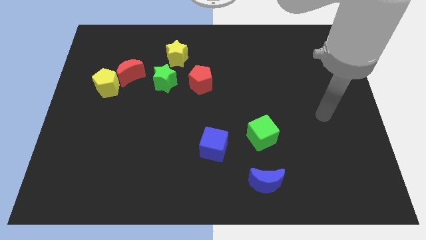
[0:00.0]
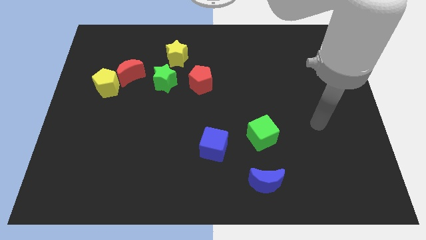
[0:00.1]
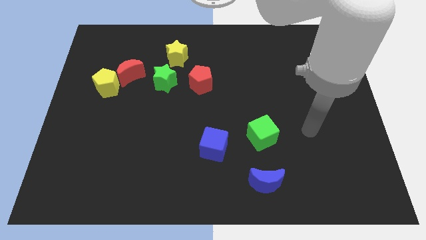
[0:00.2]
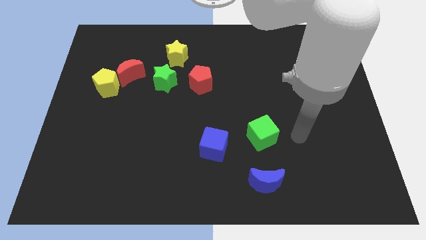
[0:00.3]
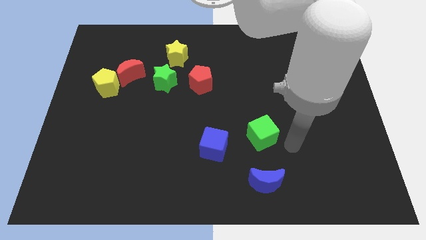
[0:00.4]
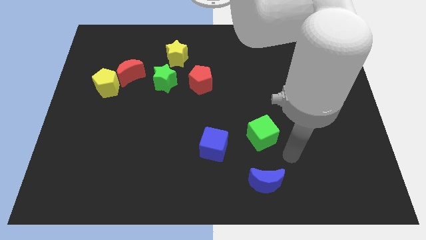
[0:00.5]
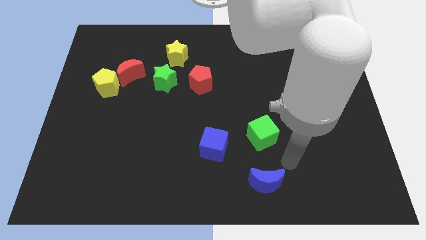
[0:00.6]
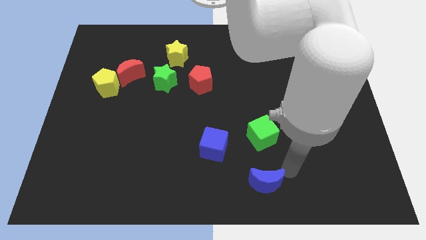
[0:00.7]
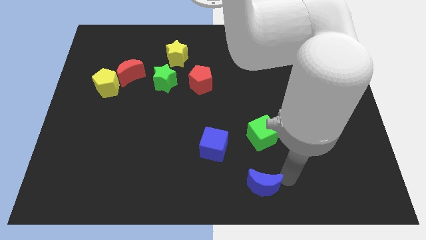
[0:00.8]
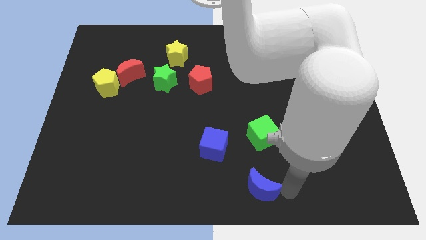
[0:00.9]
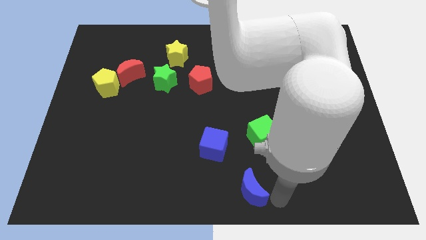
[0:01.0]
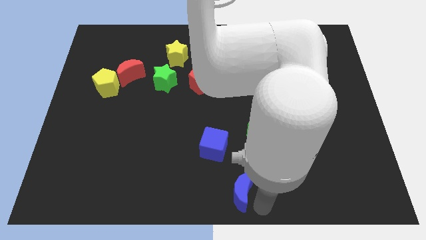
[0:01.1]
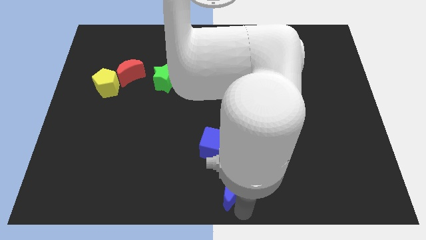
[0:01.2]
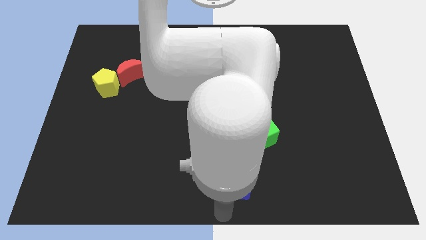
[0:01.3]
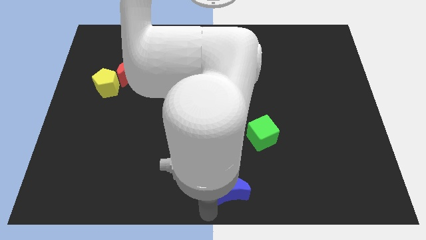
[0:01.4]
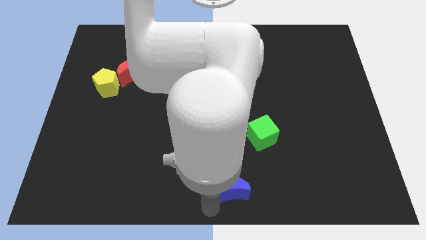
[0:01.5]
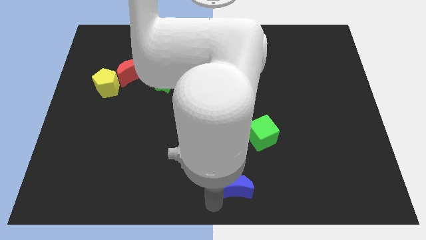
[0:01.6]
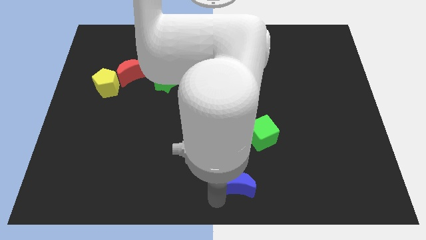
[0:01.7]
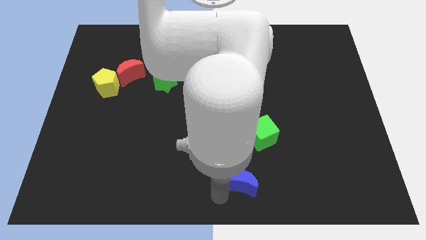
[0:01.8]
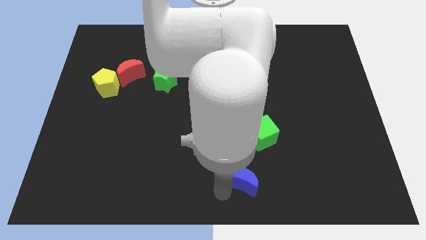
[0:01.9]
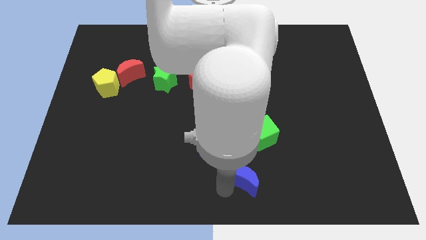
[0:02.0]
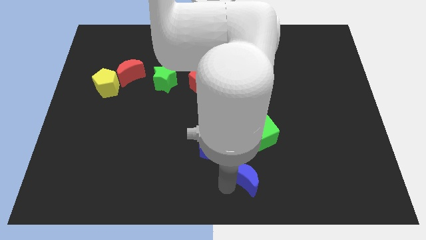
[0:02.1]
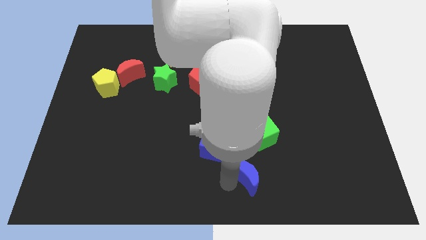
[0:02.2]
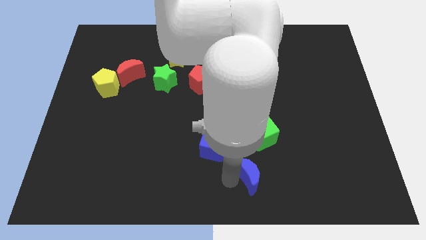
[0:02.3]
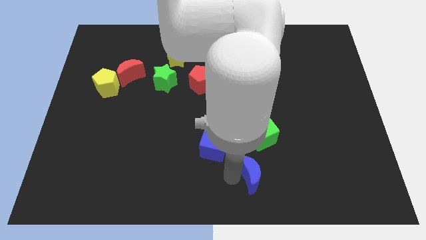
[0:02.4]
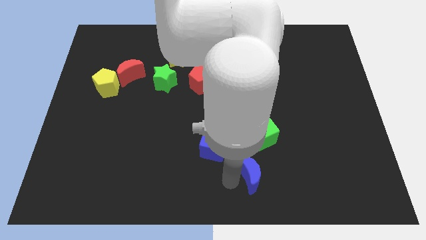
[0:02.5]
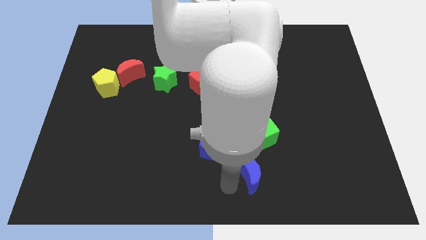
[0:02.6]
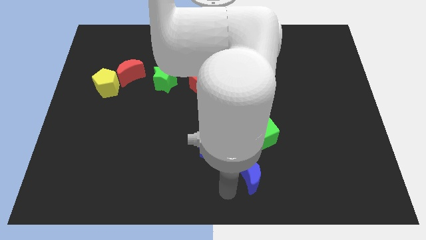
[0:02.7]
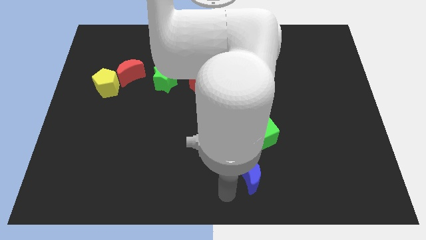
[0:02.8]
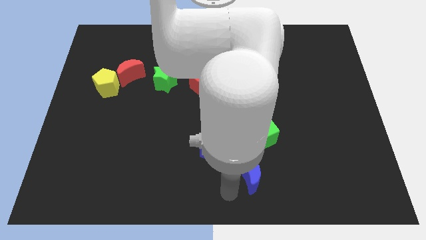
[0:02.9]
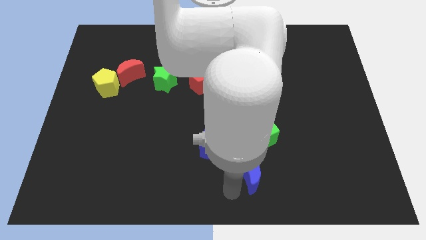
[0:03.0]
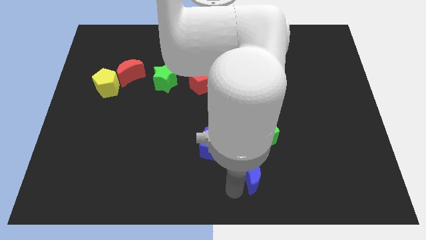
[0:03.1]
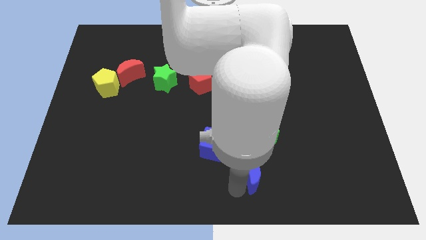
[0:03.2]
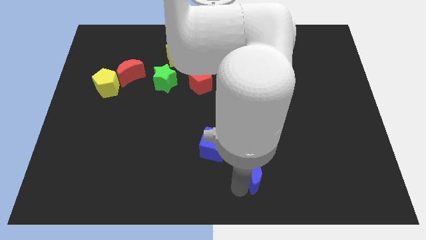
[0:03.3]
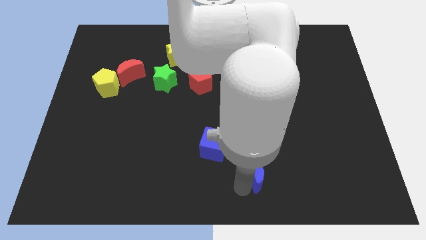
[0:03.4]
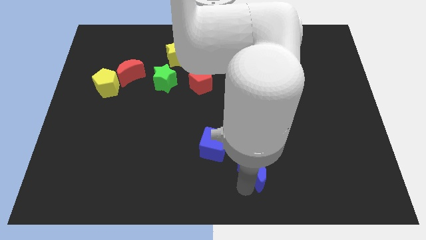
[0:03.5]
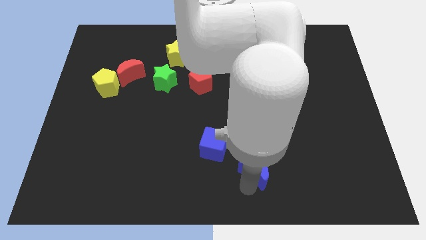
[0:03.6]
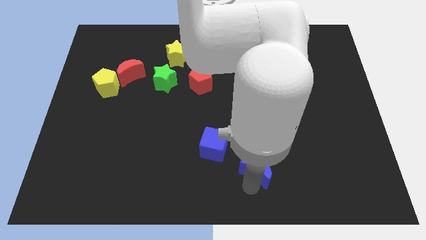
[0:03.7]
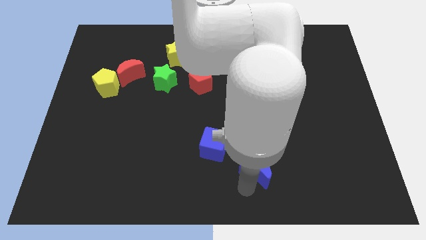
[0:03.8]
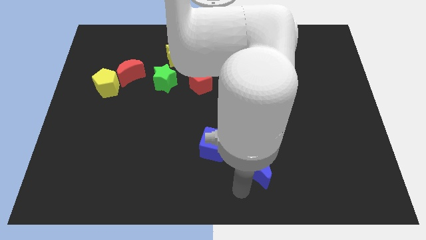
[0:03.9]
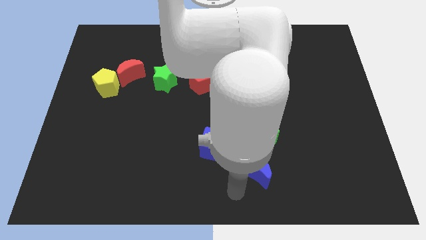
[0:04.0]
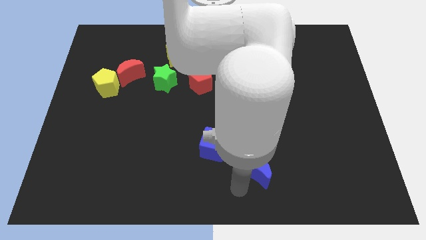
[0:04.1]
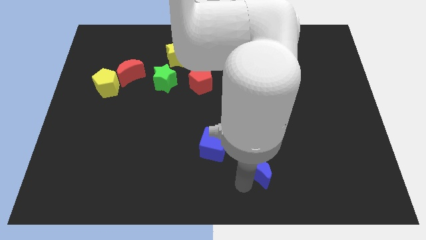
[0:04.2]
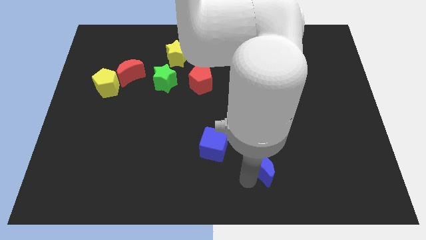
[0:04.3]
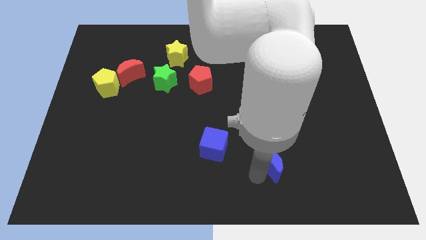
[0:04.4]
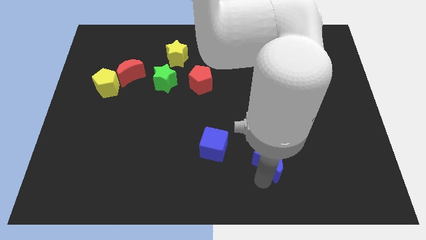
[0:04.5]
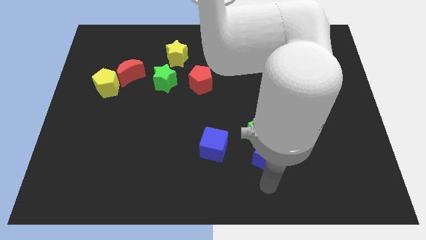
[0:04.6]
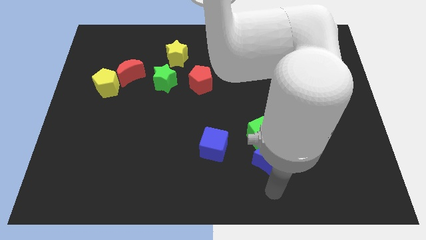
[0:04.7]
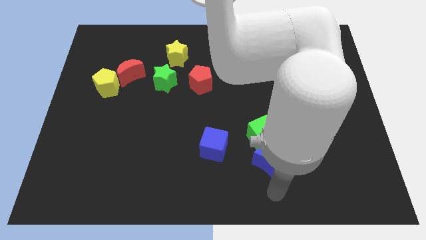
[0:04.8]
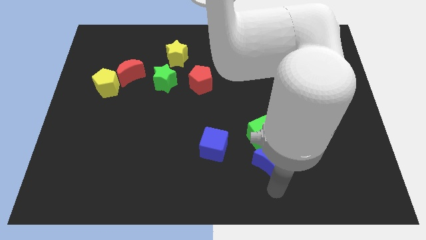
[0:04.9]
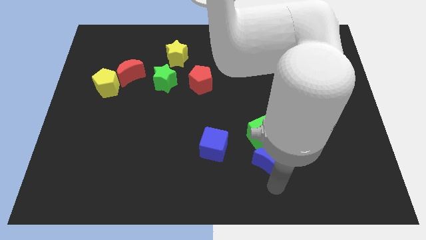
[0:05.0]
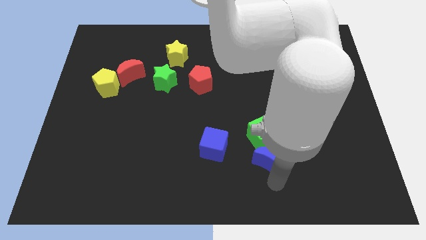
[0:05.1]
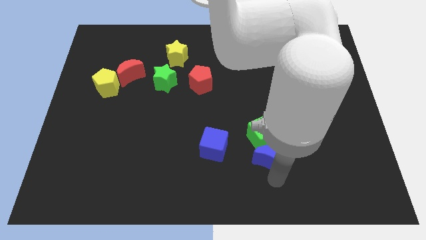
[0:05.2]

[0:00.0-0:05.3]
move the blue moon towards the green cube

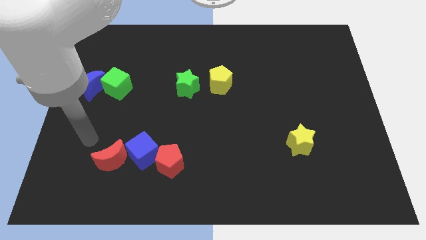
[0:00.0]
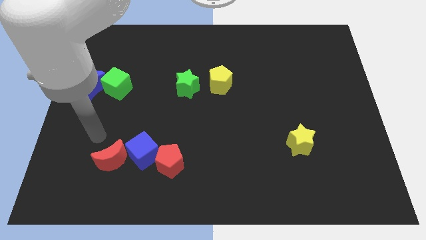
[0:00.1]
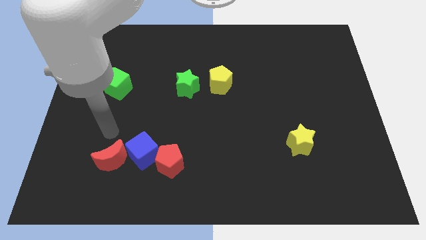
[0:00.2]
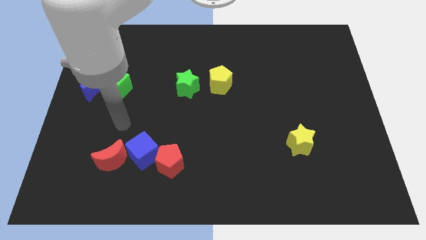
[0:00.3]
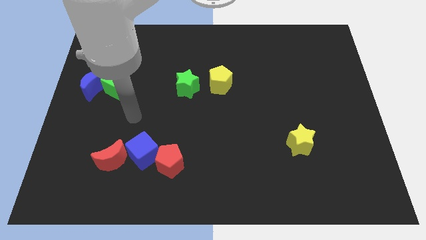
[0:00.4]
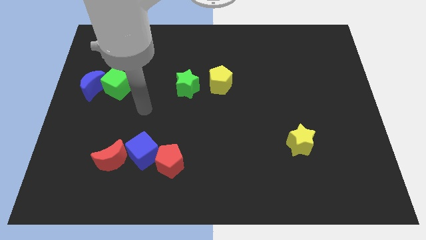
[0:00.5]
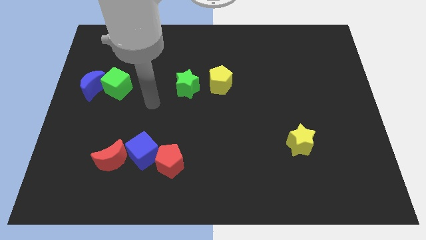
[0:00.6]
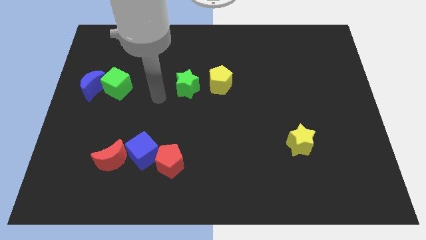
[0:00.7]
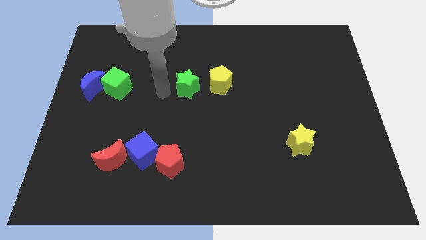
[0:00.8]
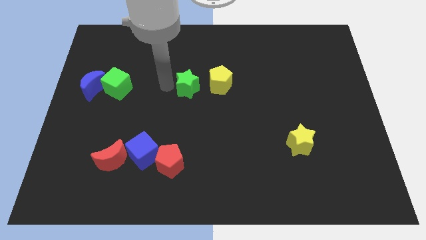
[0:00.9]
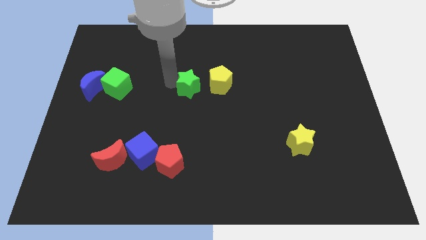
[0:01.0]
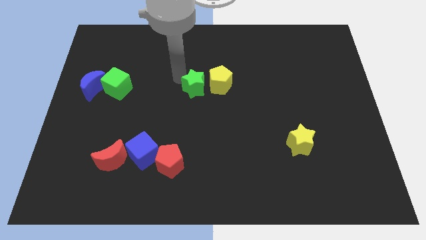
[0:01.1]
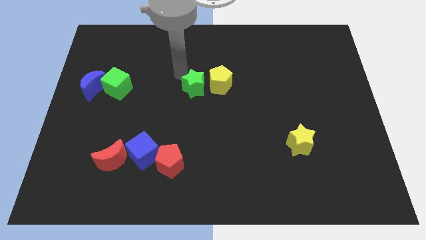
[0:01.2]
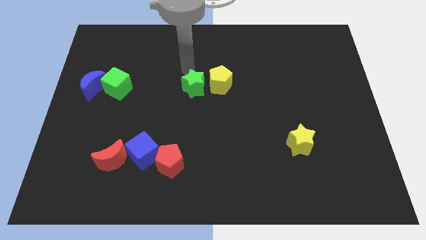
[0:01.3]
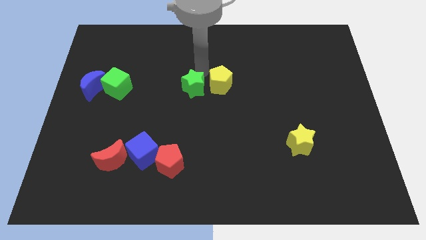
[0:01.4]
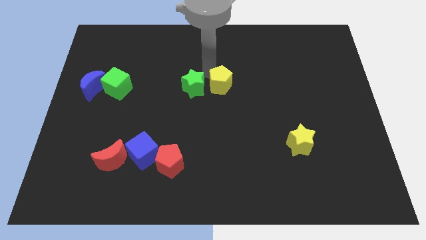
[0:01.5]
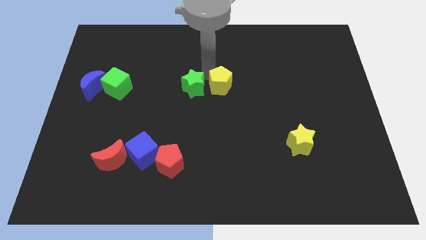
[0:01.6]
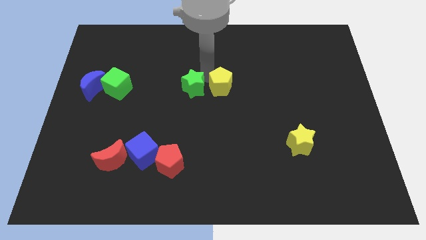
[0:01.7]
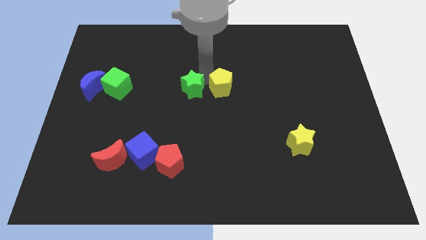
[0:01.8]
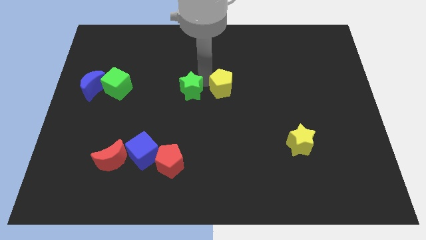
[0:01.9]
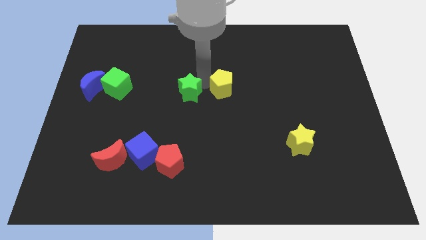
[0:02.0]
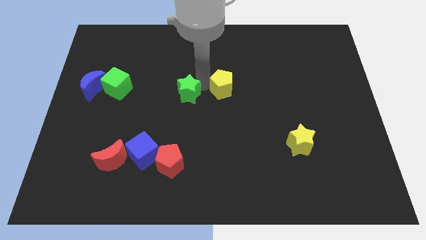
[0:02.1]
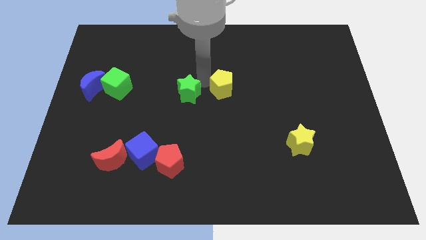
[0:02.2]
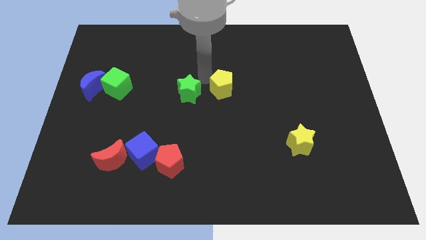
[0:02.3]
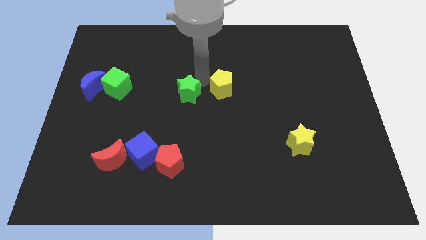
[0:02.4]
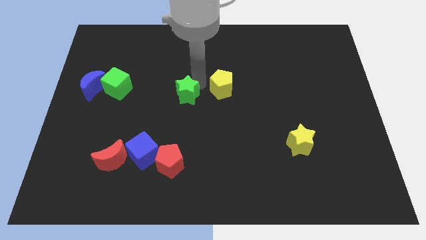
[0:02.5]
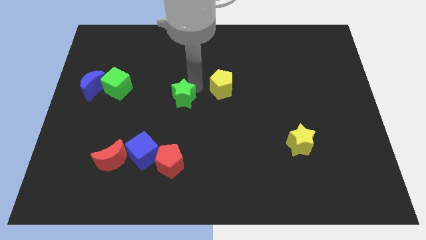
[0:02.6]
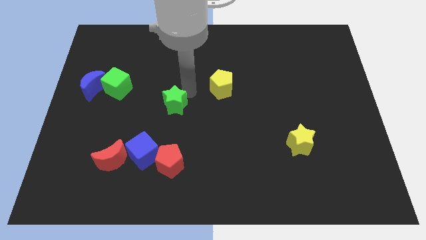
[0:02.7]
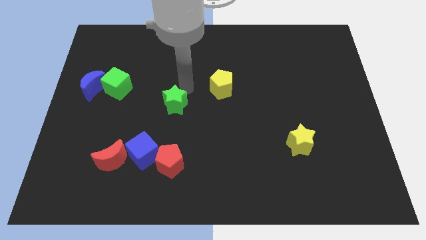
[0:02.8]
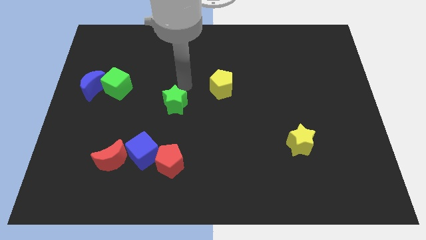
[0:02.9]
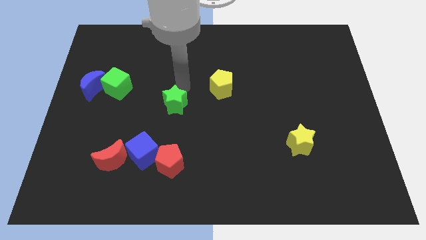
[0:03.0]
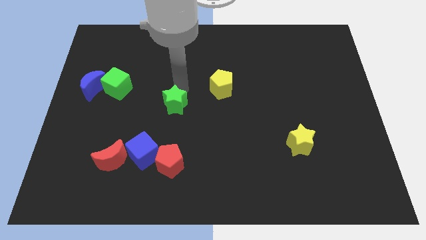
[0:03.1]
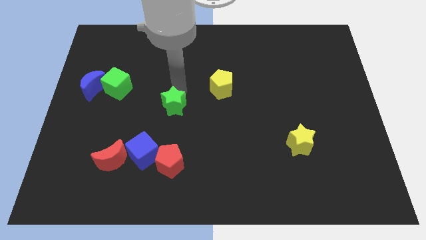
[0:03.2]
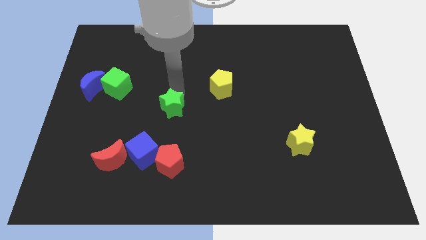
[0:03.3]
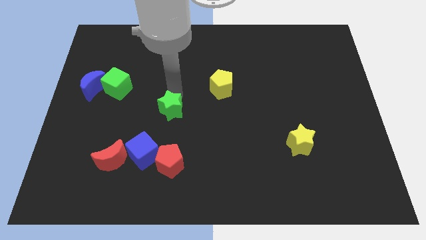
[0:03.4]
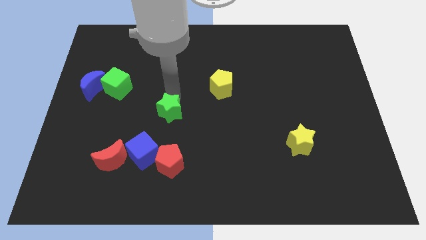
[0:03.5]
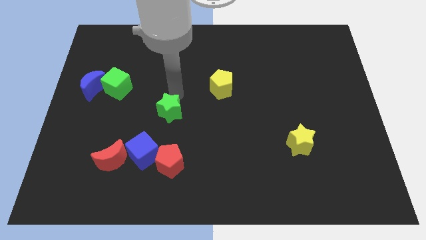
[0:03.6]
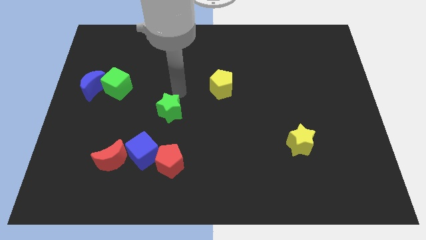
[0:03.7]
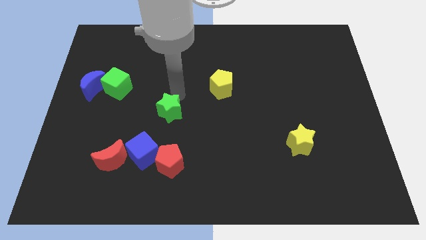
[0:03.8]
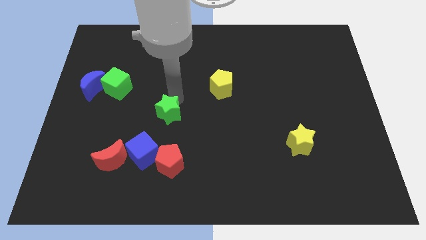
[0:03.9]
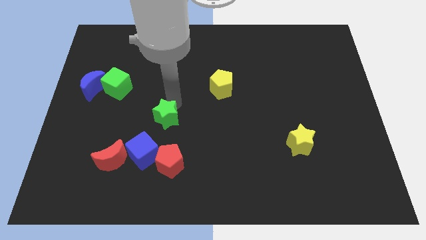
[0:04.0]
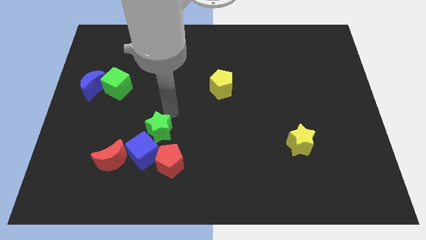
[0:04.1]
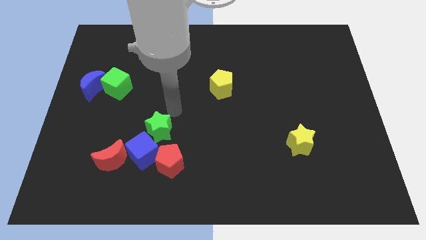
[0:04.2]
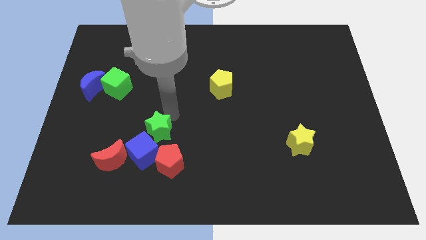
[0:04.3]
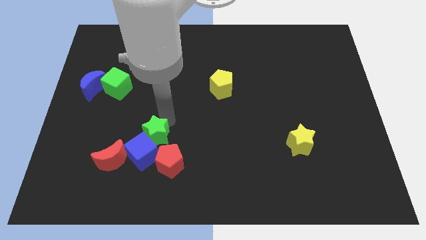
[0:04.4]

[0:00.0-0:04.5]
move the green star towards the blue cube
